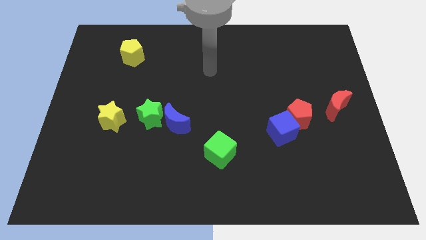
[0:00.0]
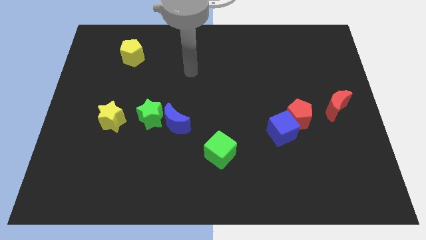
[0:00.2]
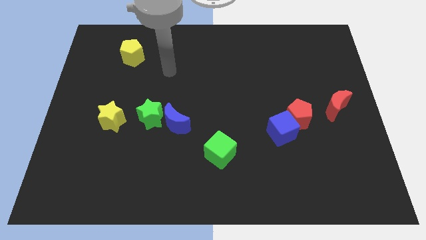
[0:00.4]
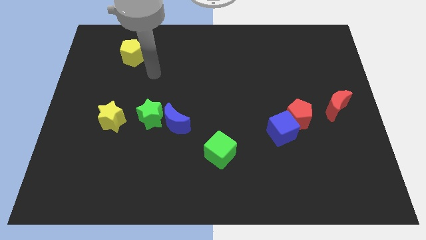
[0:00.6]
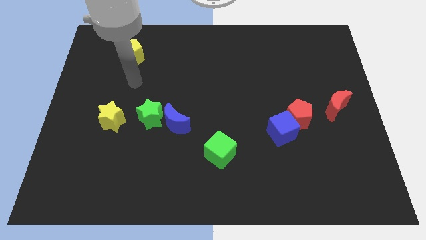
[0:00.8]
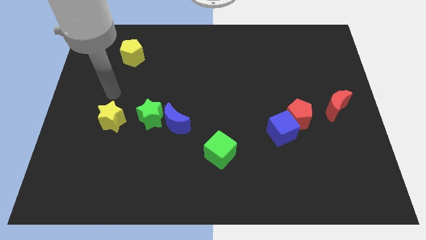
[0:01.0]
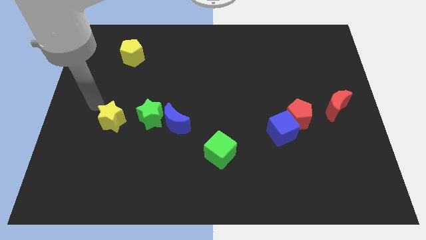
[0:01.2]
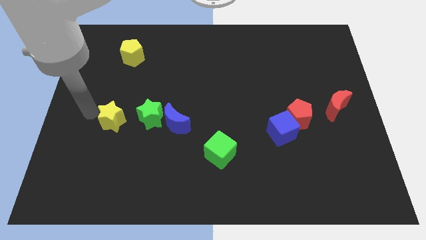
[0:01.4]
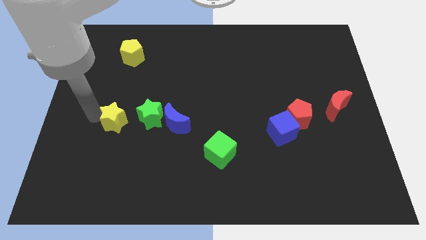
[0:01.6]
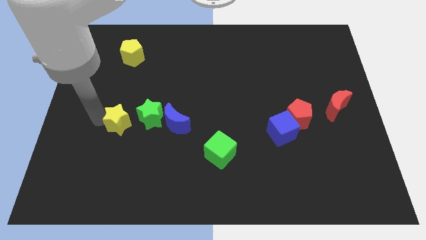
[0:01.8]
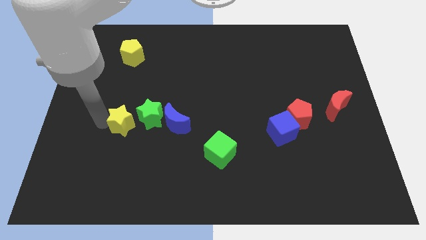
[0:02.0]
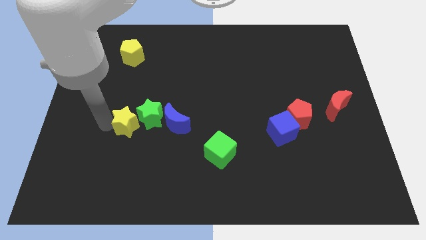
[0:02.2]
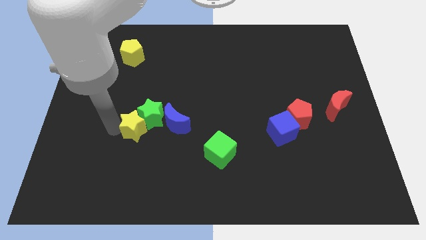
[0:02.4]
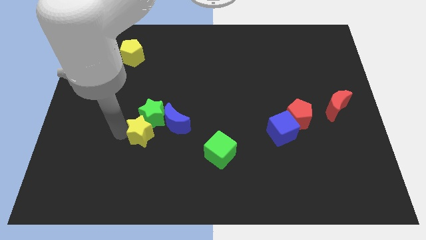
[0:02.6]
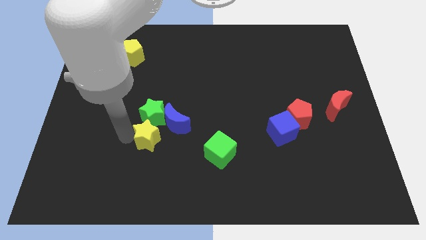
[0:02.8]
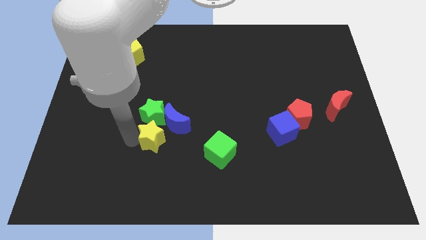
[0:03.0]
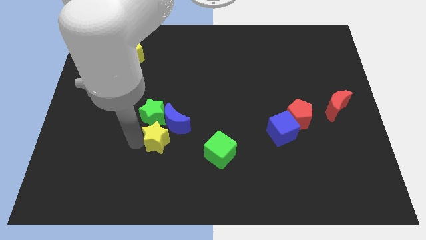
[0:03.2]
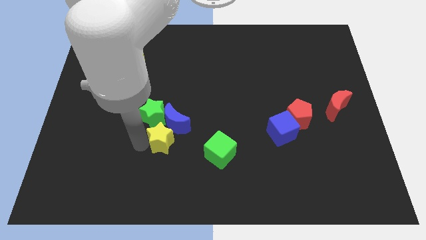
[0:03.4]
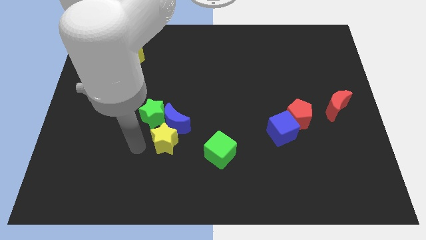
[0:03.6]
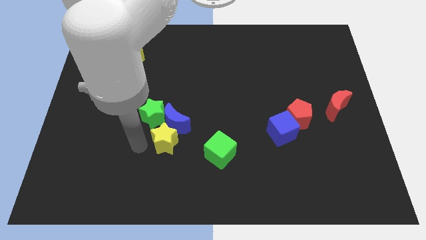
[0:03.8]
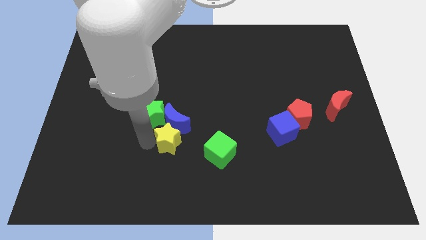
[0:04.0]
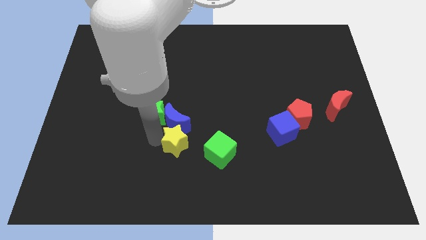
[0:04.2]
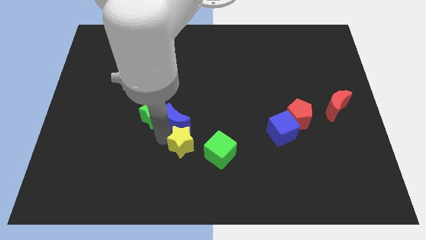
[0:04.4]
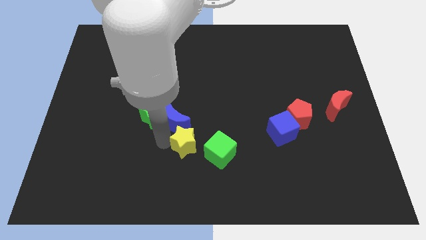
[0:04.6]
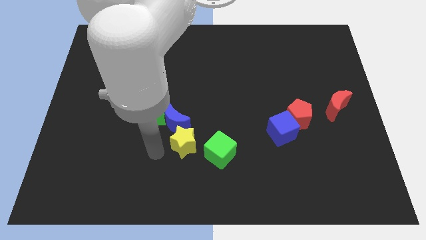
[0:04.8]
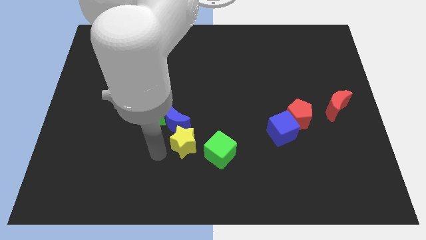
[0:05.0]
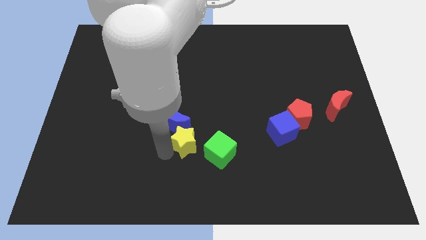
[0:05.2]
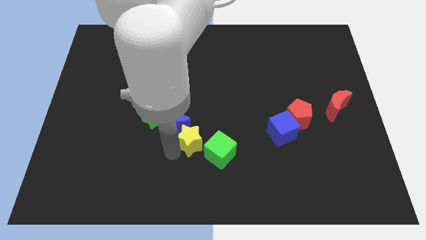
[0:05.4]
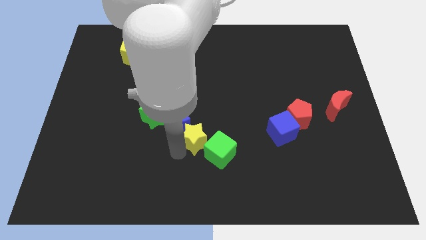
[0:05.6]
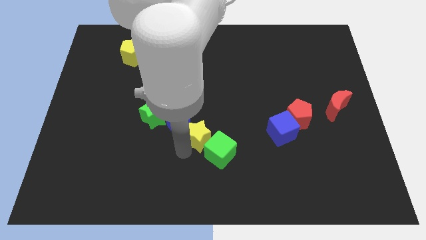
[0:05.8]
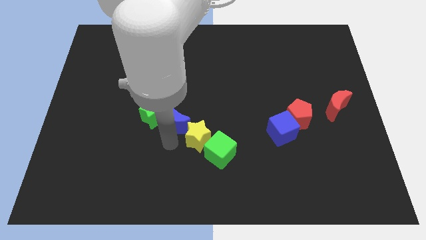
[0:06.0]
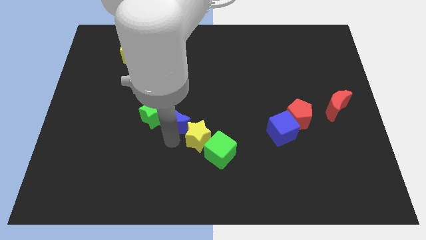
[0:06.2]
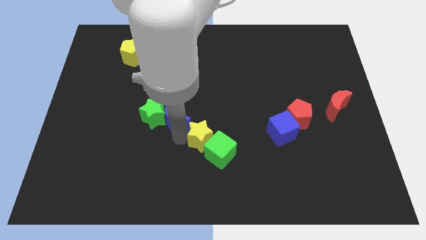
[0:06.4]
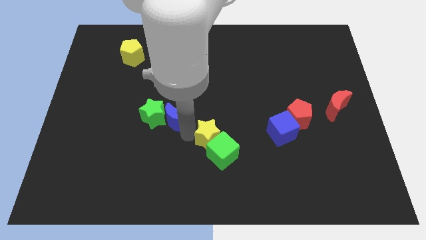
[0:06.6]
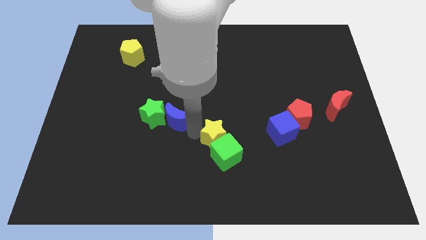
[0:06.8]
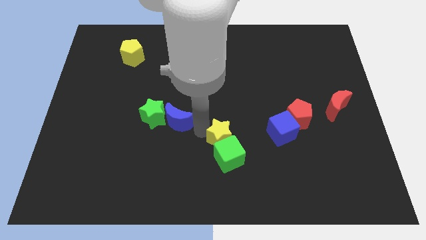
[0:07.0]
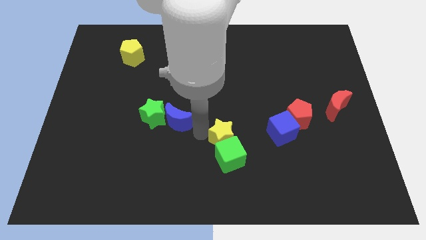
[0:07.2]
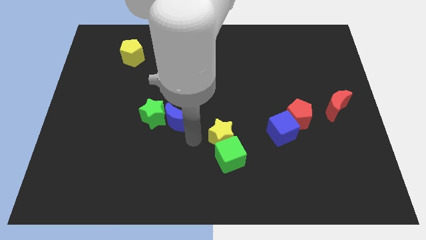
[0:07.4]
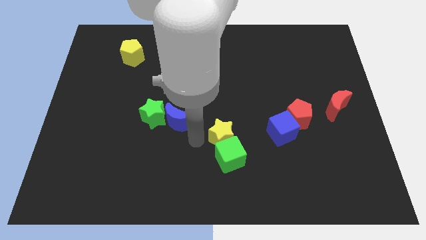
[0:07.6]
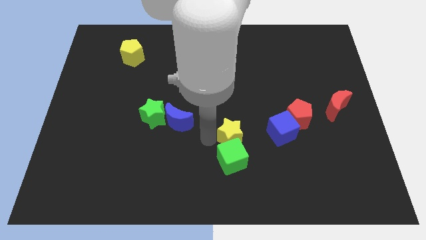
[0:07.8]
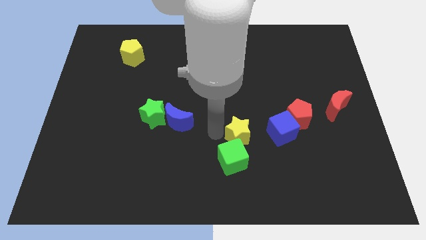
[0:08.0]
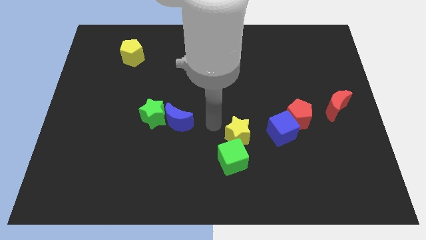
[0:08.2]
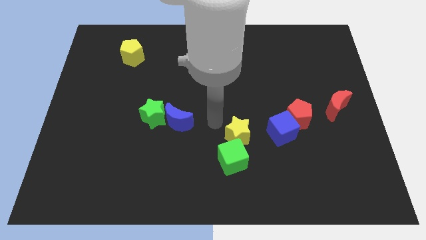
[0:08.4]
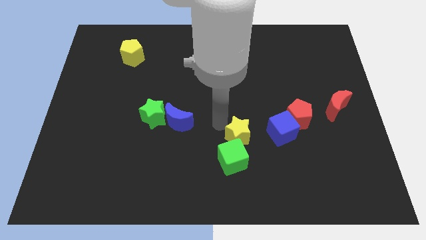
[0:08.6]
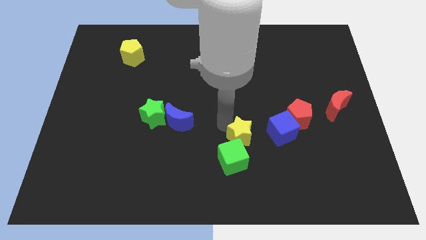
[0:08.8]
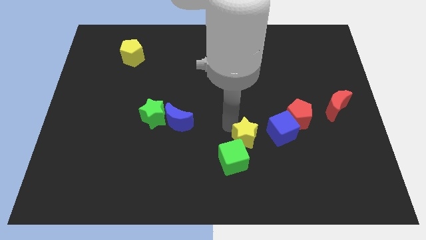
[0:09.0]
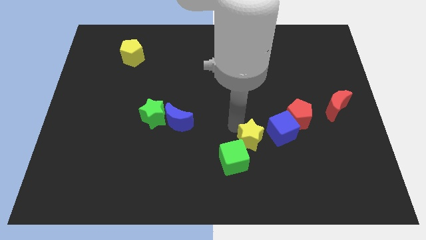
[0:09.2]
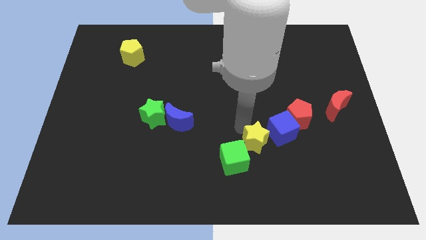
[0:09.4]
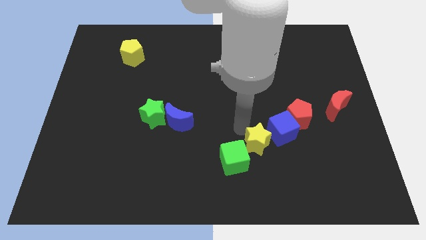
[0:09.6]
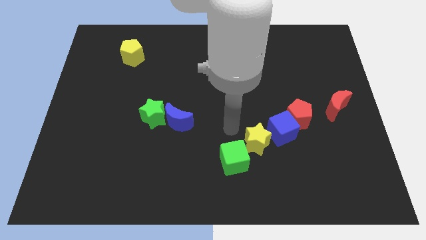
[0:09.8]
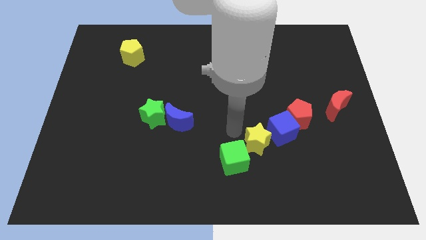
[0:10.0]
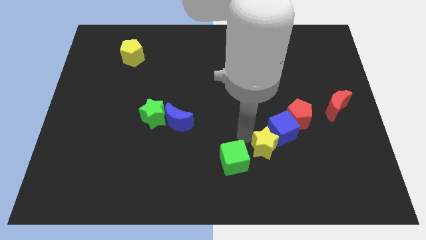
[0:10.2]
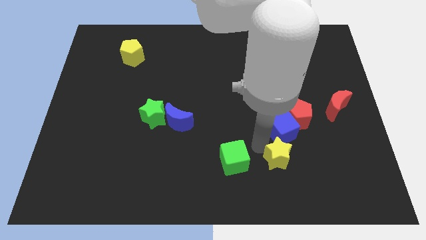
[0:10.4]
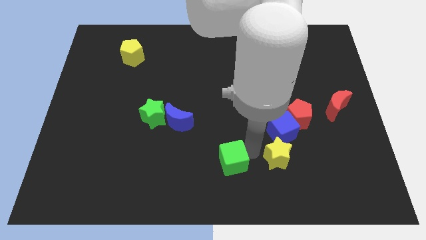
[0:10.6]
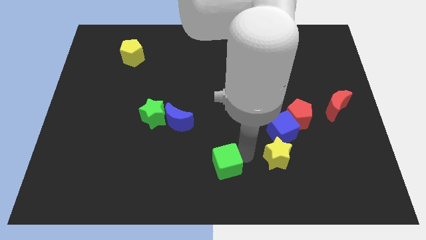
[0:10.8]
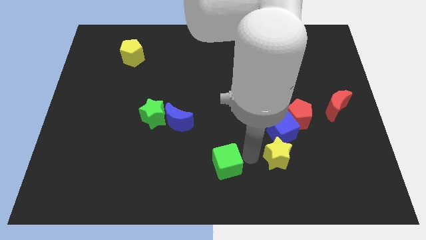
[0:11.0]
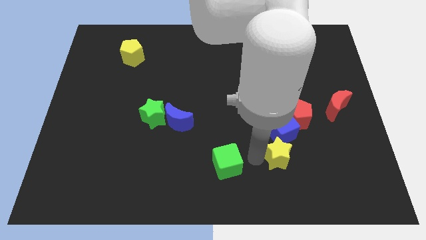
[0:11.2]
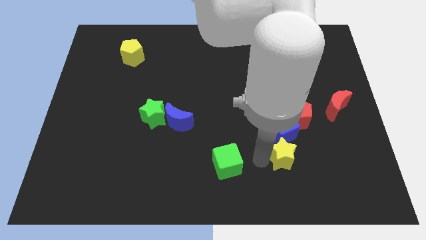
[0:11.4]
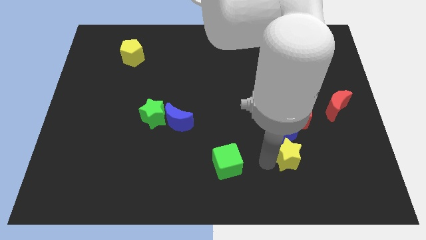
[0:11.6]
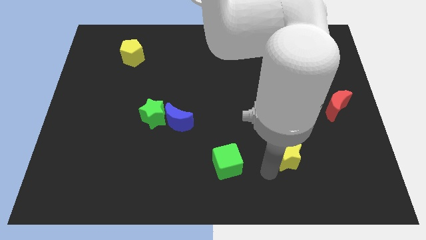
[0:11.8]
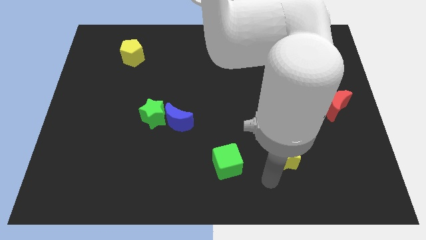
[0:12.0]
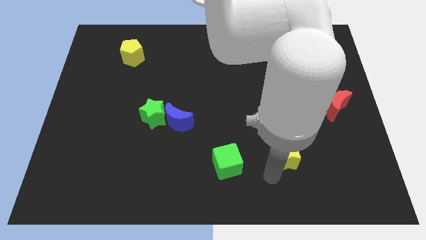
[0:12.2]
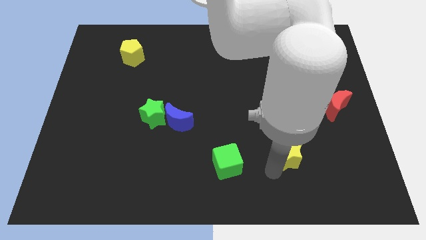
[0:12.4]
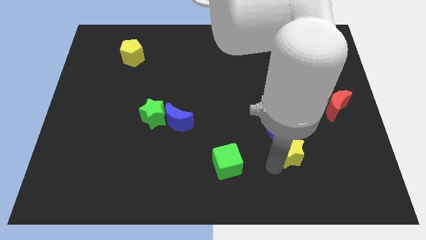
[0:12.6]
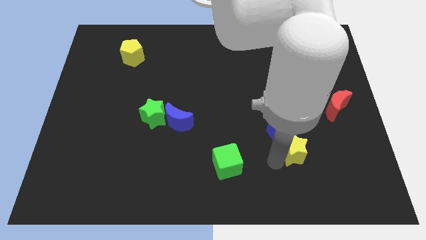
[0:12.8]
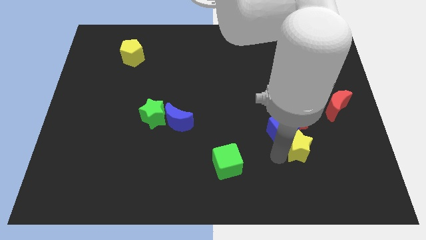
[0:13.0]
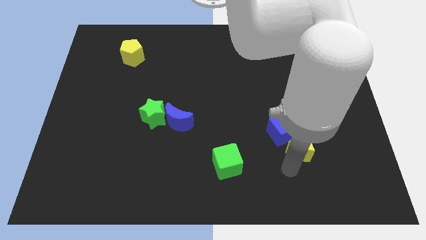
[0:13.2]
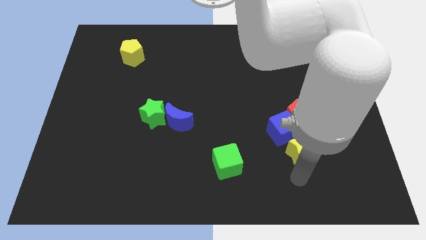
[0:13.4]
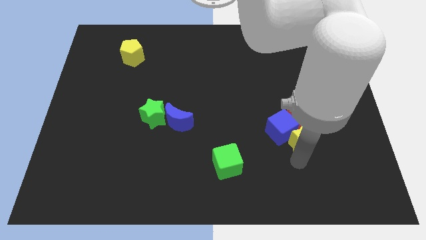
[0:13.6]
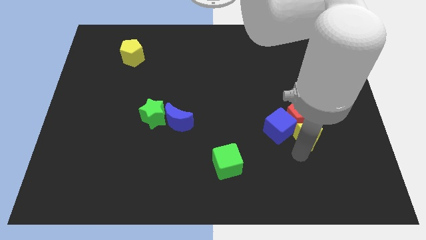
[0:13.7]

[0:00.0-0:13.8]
slide the yellow star towards the red pentagon

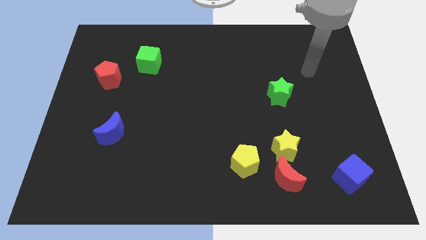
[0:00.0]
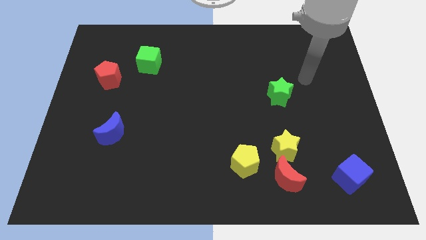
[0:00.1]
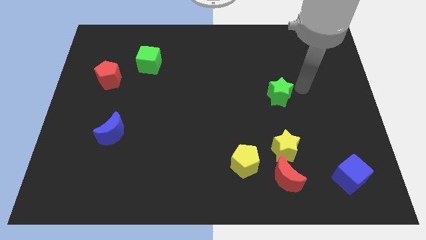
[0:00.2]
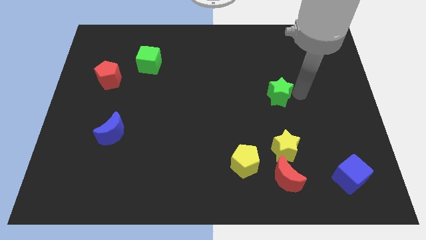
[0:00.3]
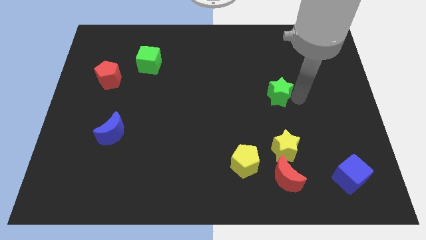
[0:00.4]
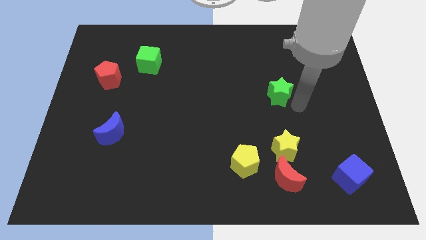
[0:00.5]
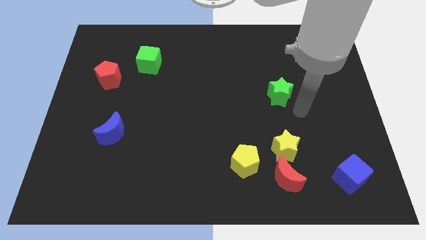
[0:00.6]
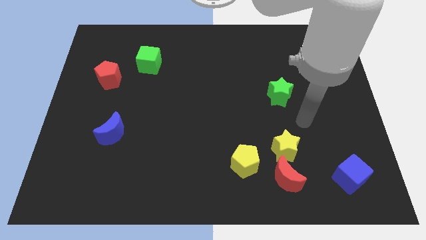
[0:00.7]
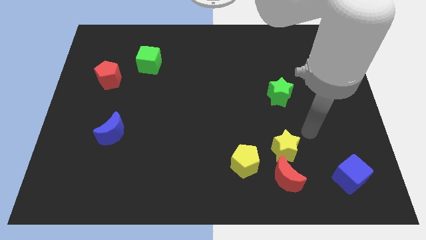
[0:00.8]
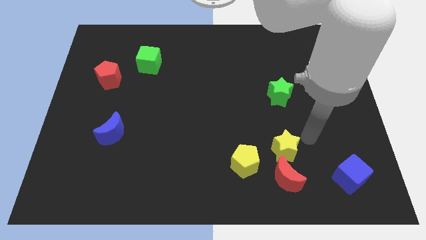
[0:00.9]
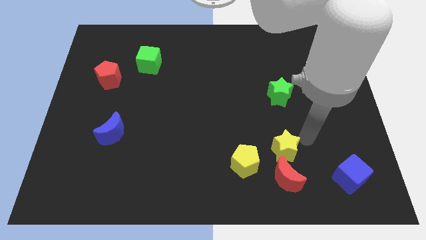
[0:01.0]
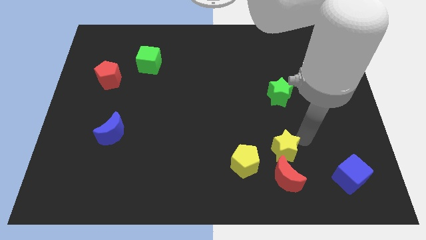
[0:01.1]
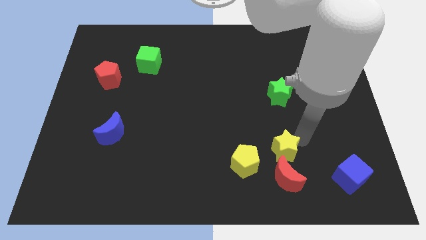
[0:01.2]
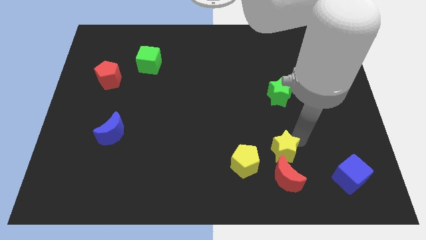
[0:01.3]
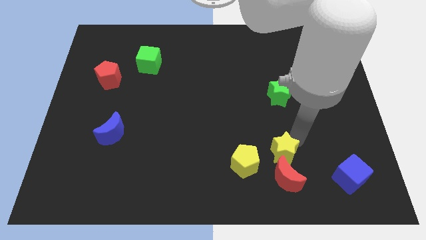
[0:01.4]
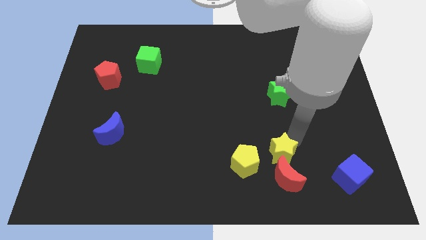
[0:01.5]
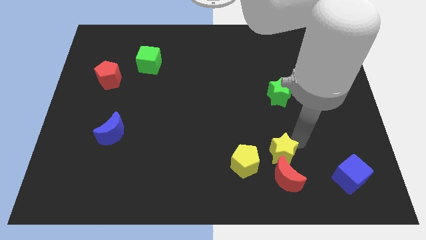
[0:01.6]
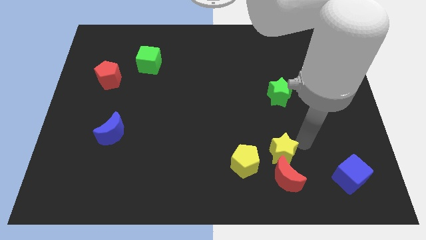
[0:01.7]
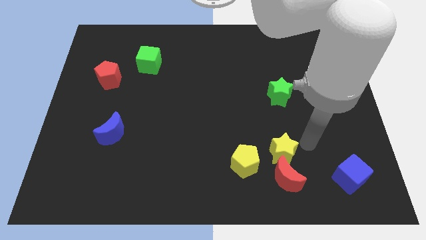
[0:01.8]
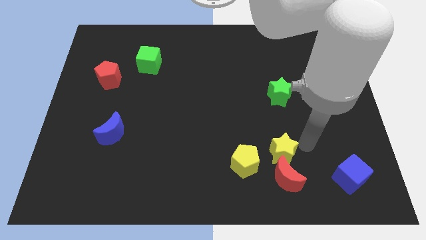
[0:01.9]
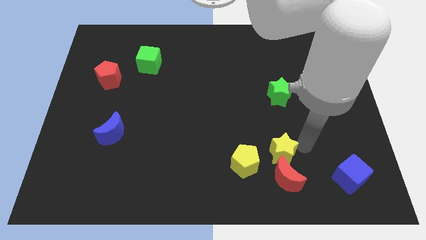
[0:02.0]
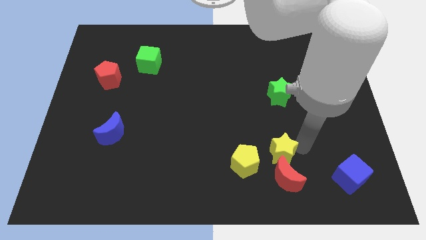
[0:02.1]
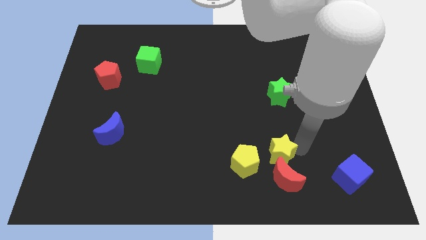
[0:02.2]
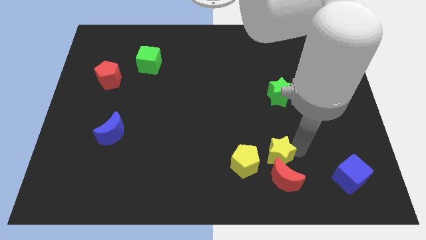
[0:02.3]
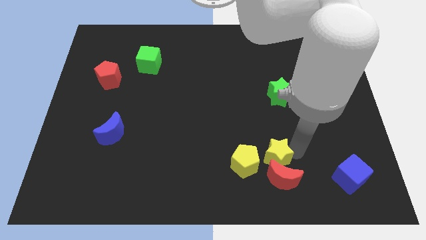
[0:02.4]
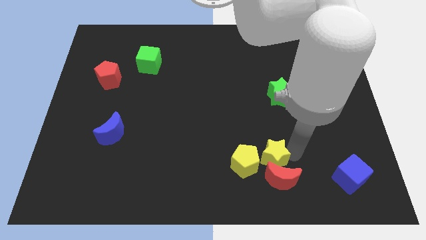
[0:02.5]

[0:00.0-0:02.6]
put the yellow star towards the yellow pentagon
